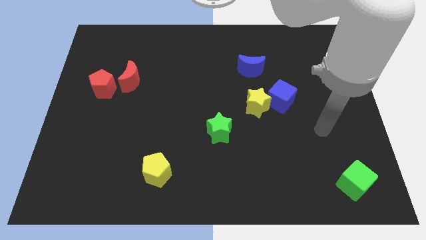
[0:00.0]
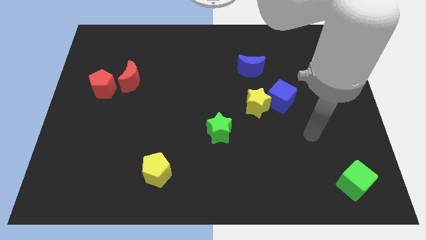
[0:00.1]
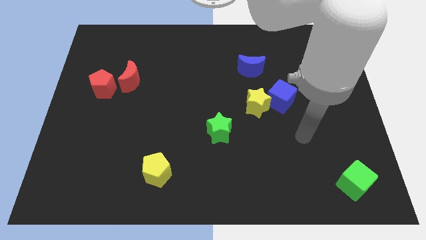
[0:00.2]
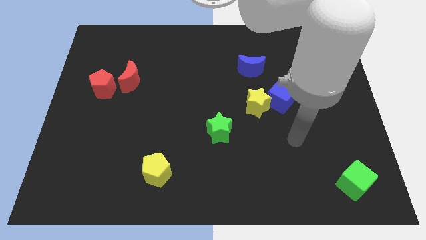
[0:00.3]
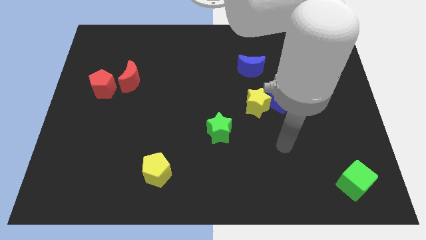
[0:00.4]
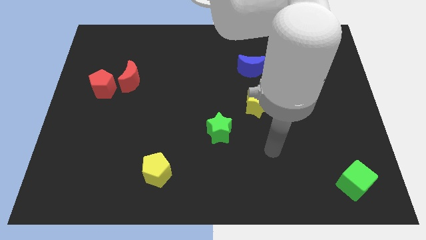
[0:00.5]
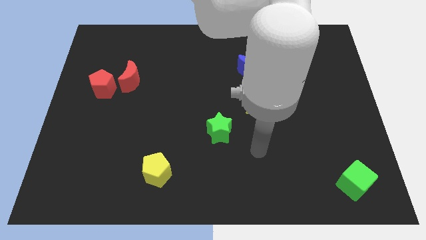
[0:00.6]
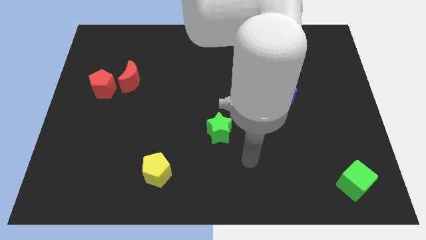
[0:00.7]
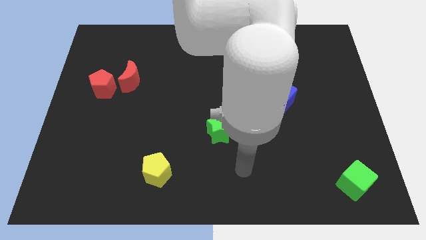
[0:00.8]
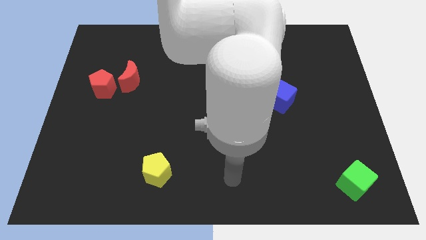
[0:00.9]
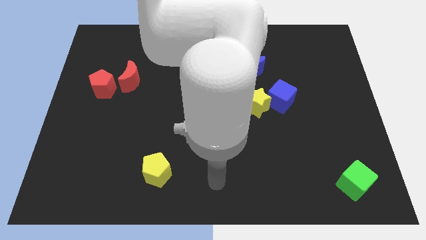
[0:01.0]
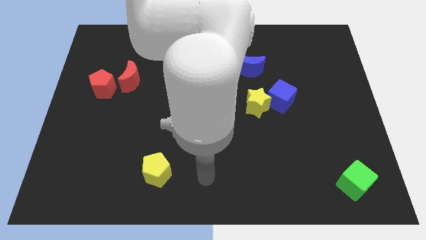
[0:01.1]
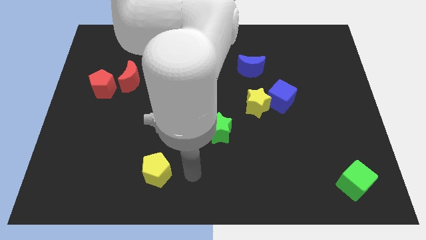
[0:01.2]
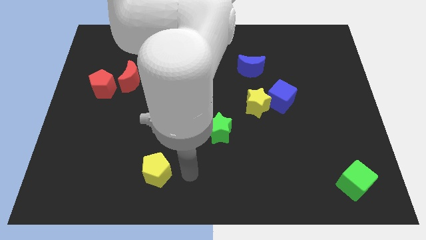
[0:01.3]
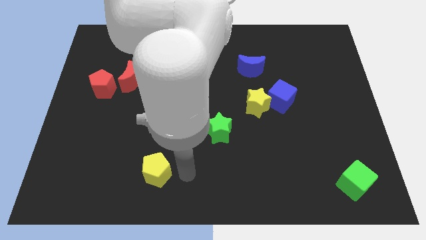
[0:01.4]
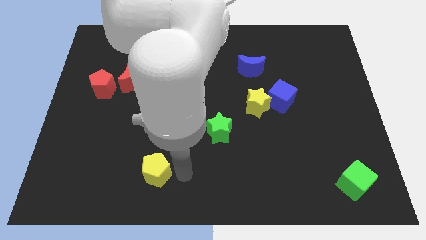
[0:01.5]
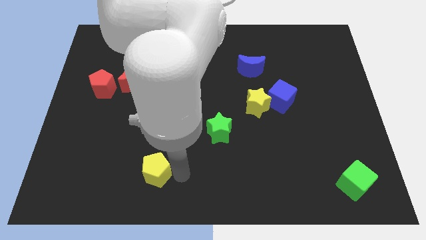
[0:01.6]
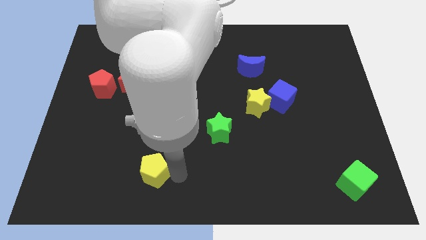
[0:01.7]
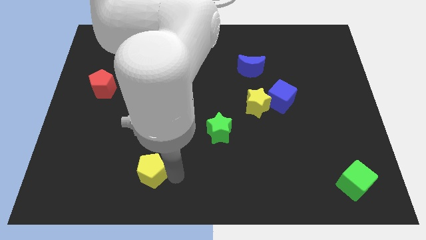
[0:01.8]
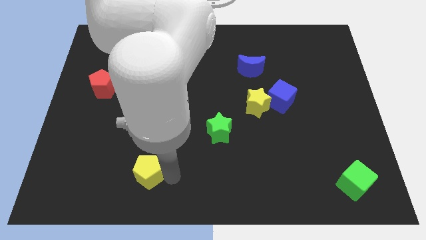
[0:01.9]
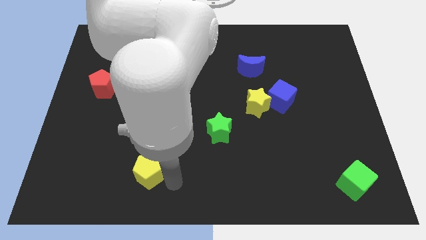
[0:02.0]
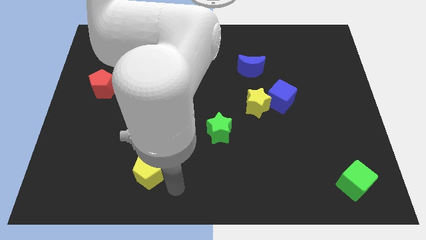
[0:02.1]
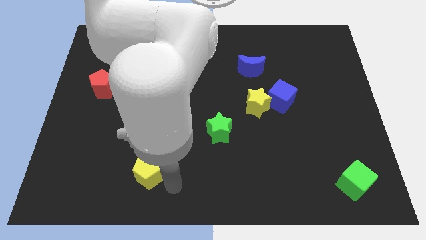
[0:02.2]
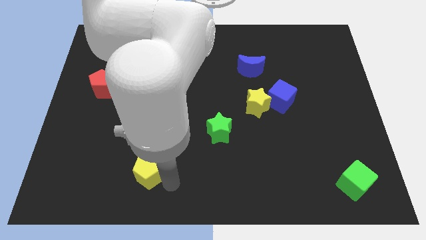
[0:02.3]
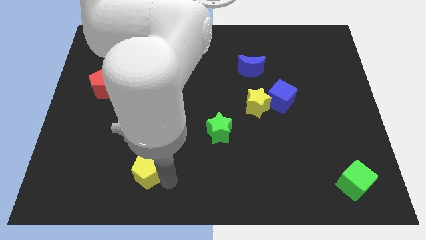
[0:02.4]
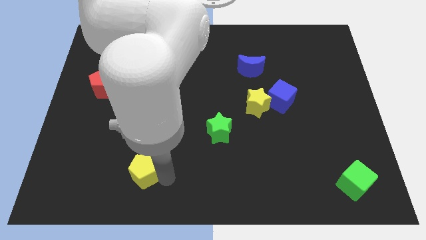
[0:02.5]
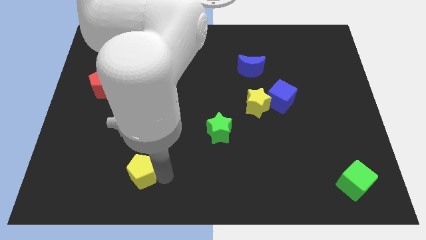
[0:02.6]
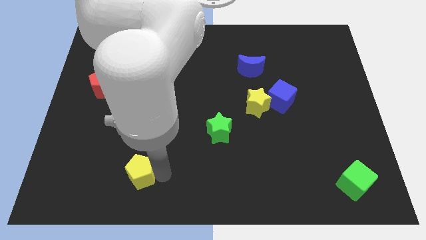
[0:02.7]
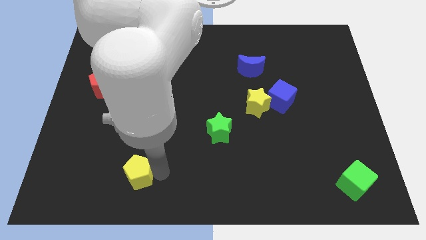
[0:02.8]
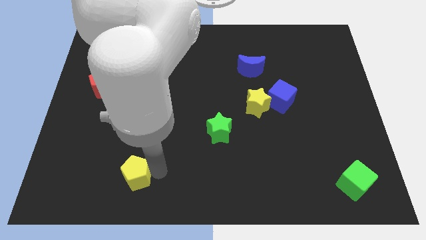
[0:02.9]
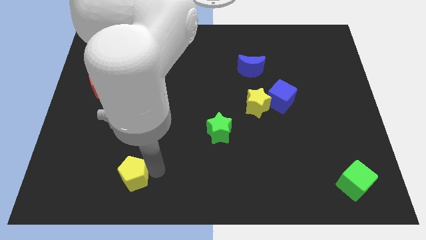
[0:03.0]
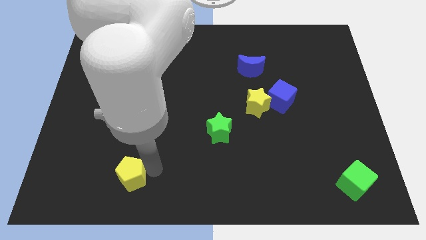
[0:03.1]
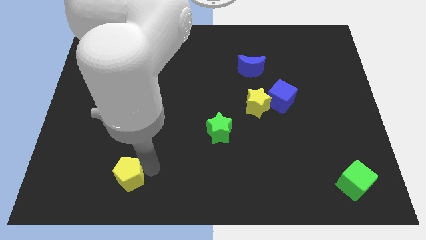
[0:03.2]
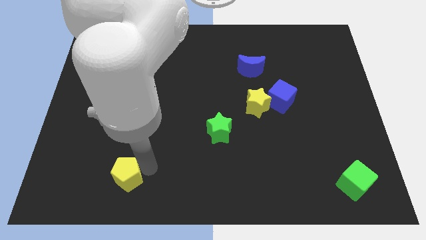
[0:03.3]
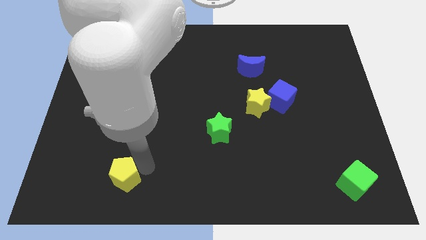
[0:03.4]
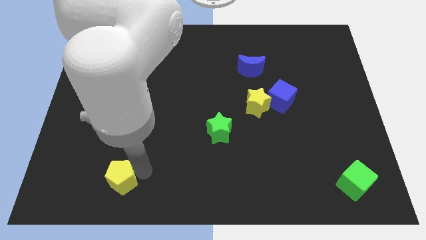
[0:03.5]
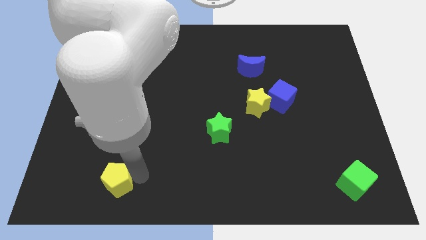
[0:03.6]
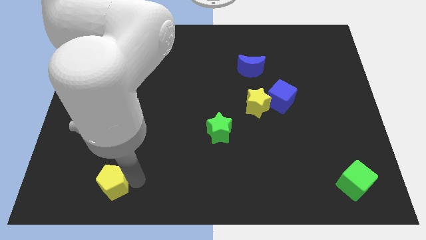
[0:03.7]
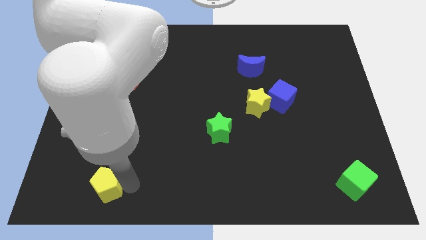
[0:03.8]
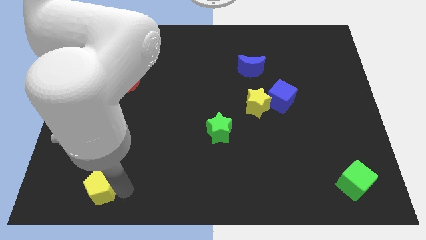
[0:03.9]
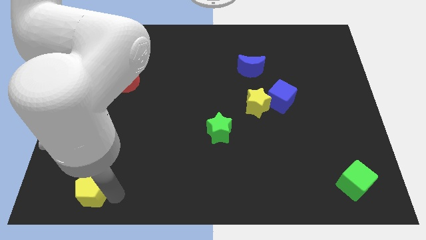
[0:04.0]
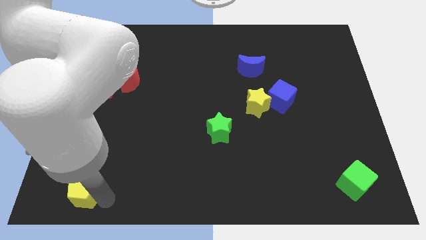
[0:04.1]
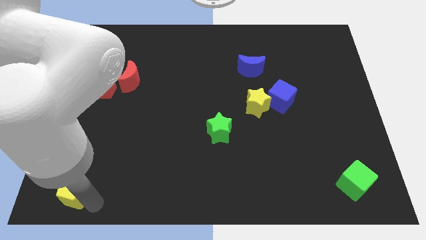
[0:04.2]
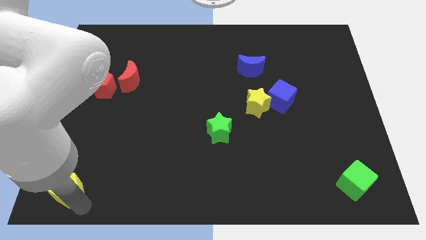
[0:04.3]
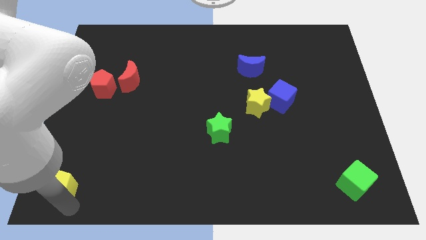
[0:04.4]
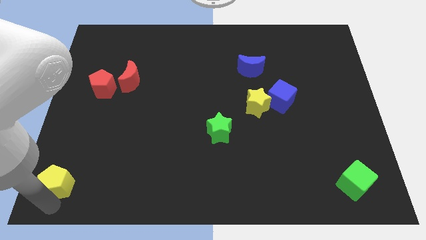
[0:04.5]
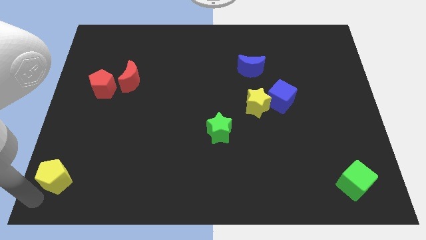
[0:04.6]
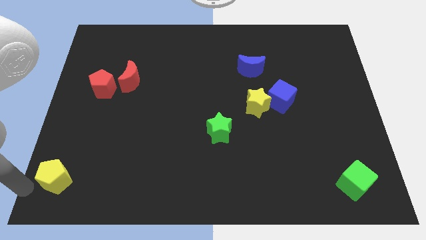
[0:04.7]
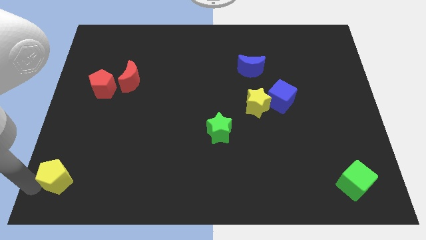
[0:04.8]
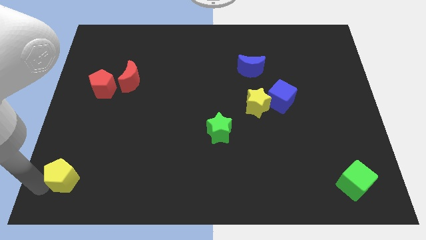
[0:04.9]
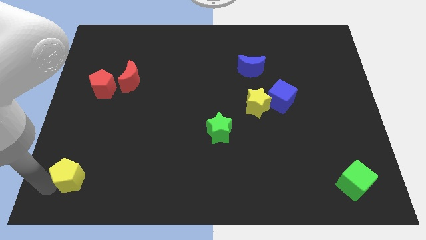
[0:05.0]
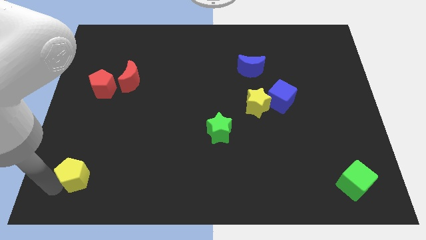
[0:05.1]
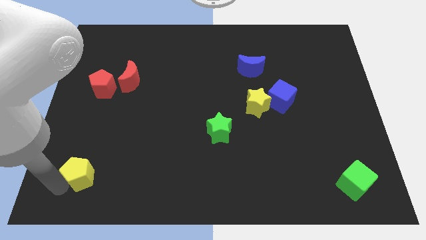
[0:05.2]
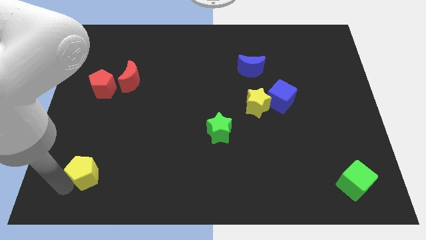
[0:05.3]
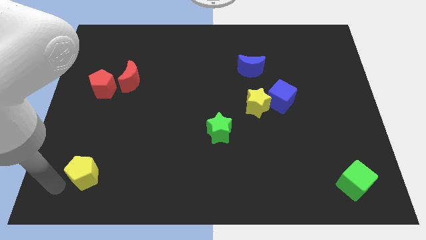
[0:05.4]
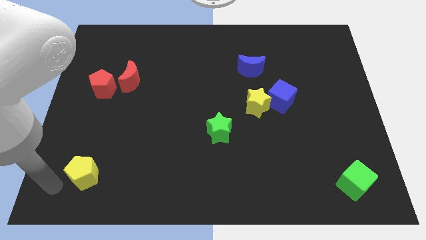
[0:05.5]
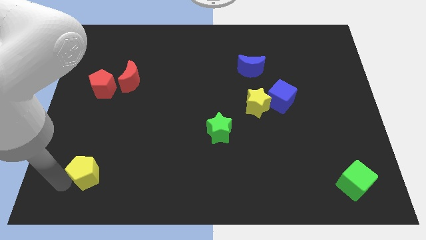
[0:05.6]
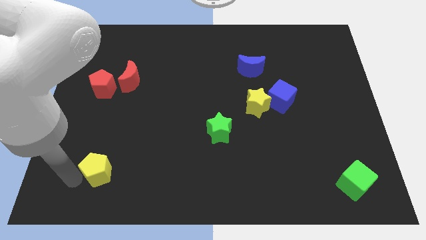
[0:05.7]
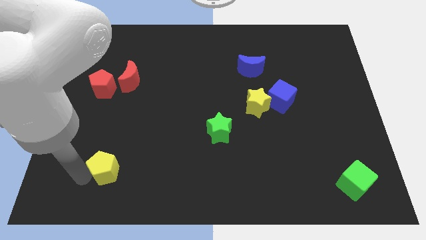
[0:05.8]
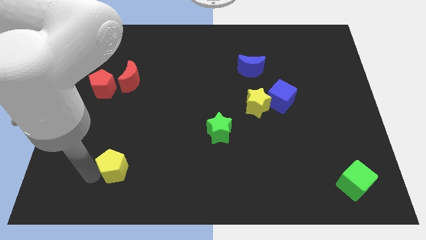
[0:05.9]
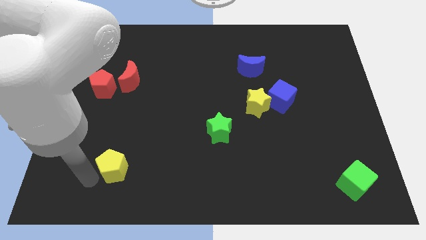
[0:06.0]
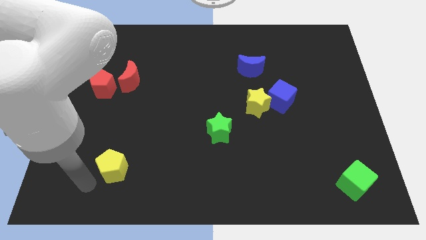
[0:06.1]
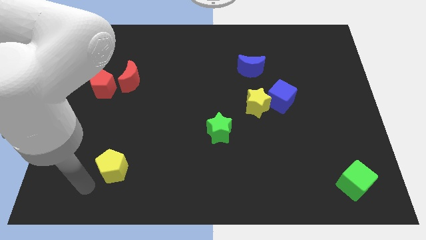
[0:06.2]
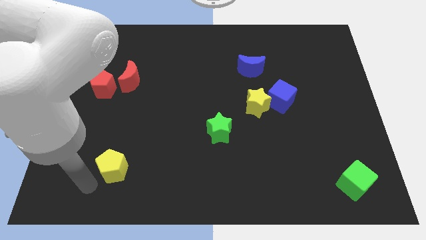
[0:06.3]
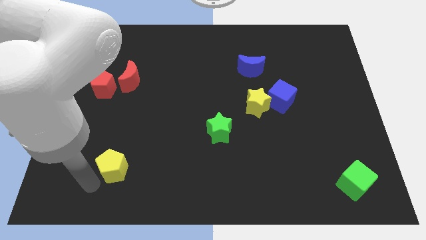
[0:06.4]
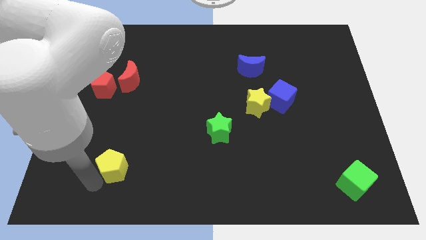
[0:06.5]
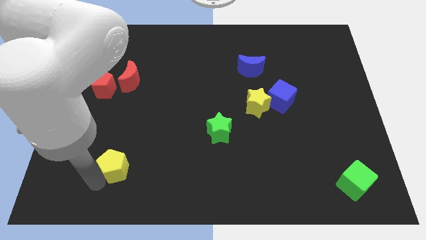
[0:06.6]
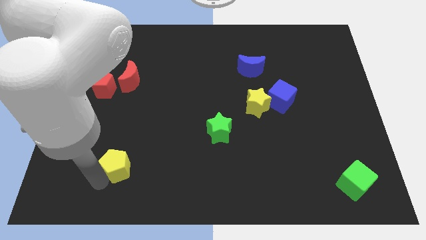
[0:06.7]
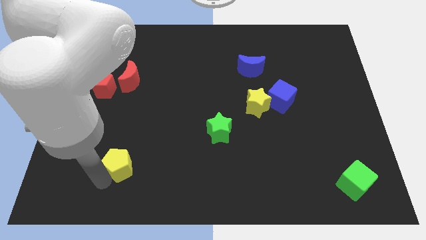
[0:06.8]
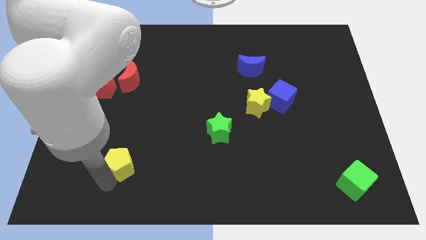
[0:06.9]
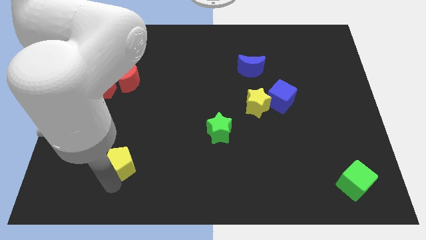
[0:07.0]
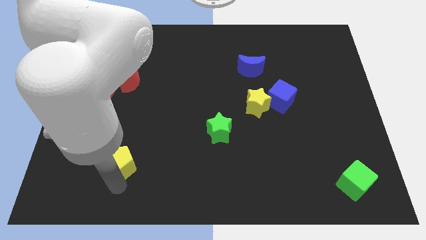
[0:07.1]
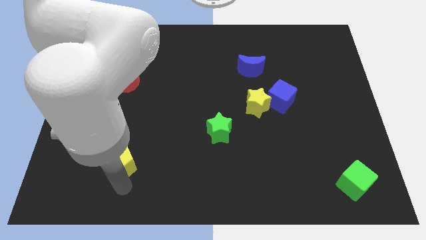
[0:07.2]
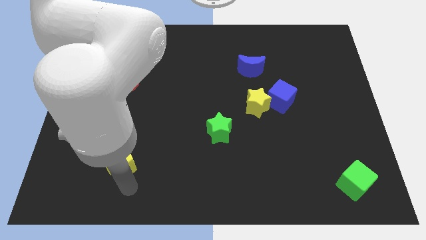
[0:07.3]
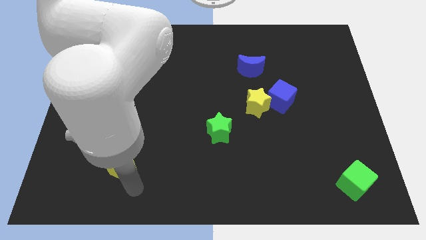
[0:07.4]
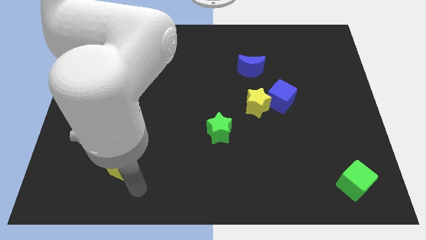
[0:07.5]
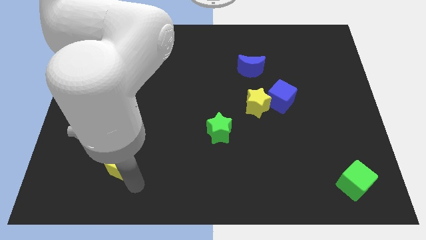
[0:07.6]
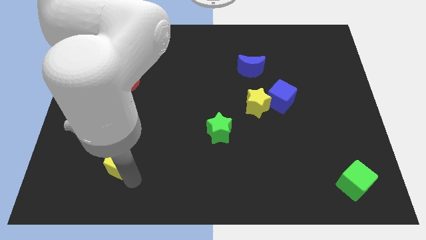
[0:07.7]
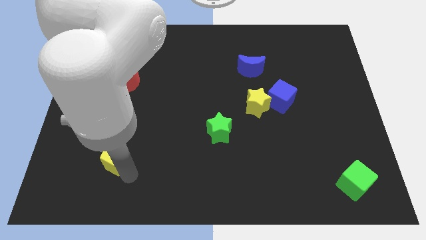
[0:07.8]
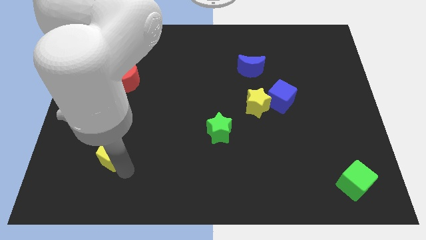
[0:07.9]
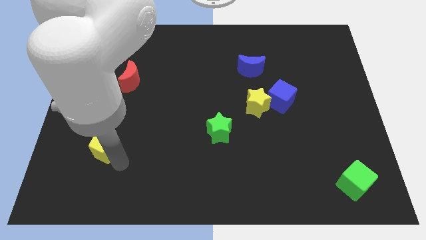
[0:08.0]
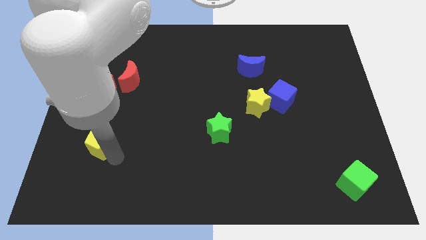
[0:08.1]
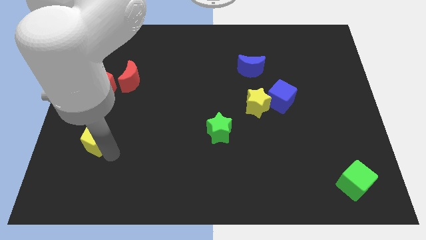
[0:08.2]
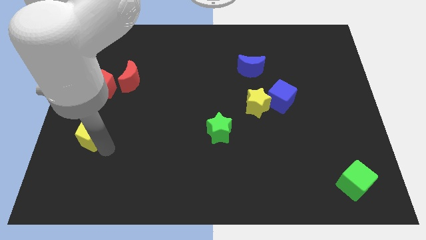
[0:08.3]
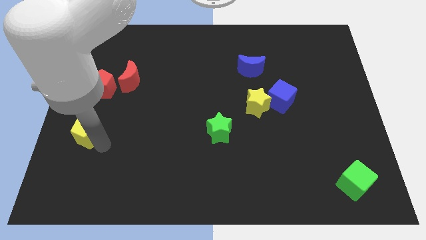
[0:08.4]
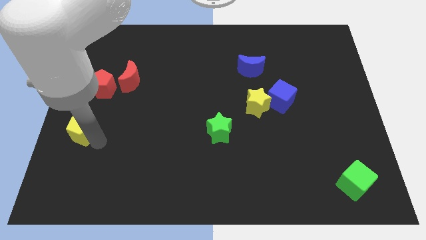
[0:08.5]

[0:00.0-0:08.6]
slide the yellow pentagon to the left side
